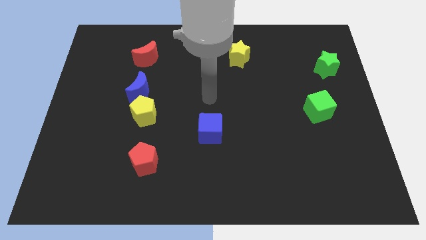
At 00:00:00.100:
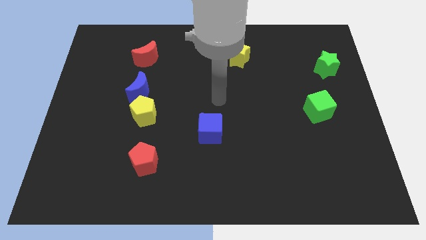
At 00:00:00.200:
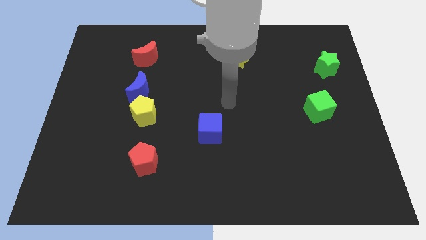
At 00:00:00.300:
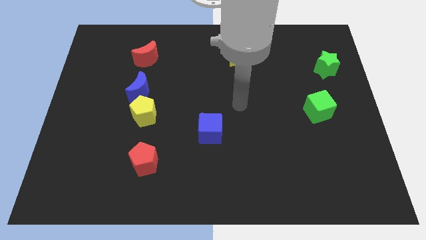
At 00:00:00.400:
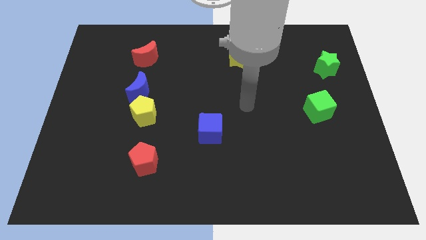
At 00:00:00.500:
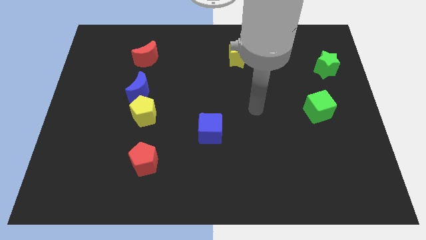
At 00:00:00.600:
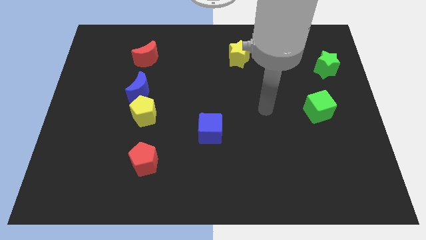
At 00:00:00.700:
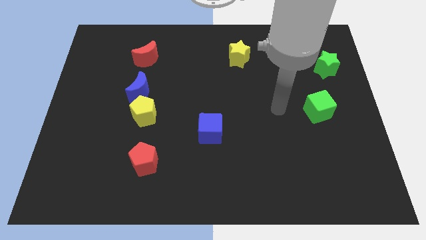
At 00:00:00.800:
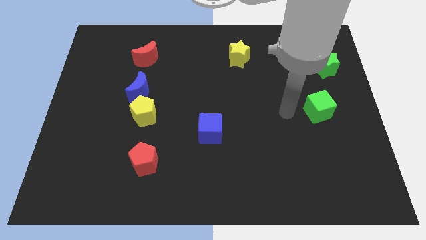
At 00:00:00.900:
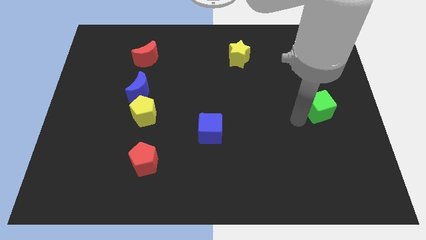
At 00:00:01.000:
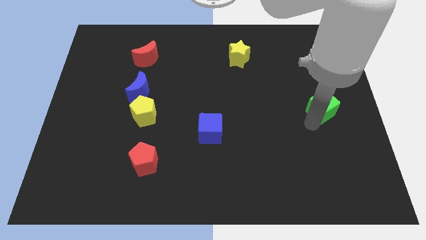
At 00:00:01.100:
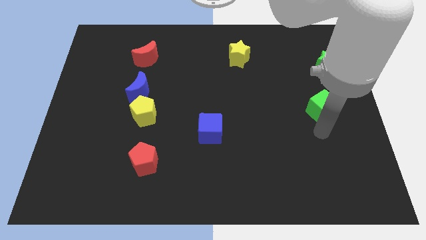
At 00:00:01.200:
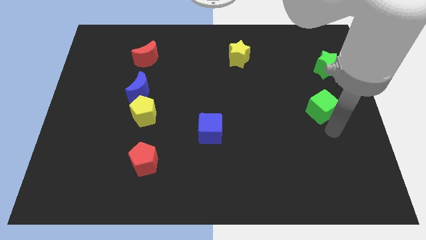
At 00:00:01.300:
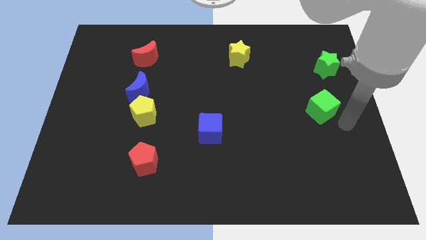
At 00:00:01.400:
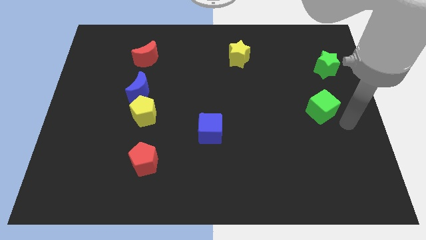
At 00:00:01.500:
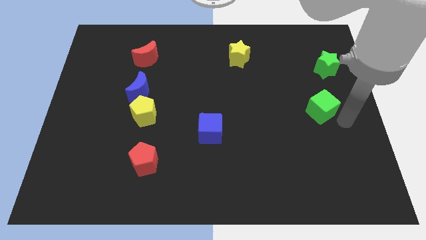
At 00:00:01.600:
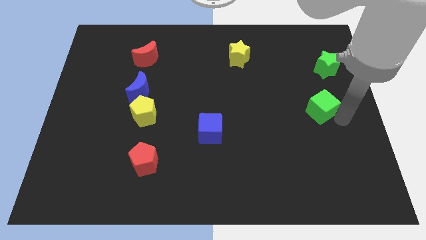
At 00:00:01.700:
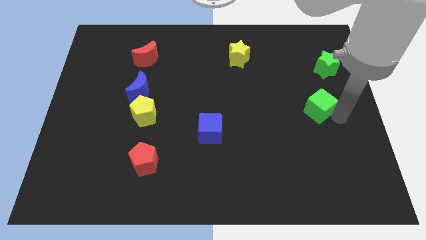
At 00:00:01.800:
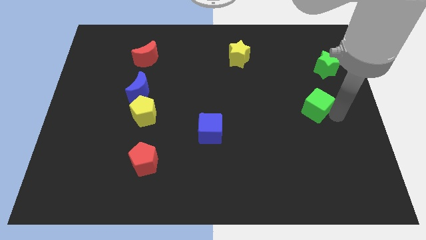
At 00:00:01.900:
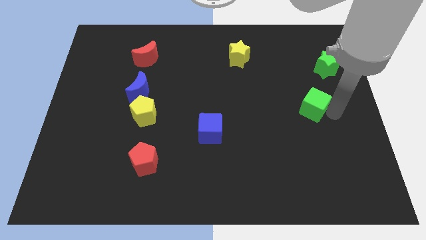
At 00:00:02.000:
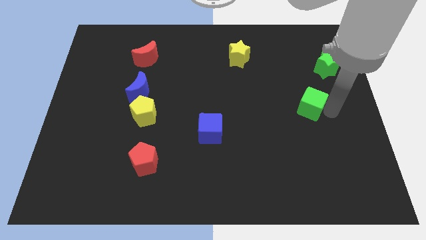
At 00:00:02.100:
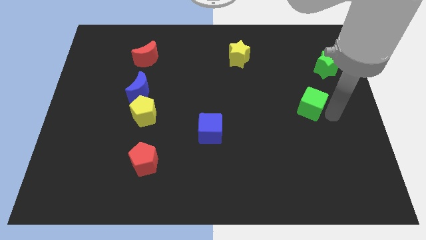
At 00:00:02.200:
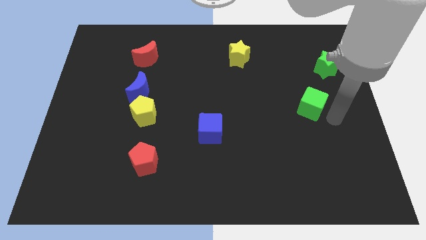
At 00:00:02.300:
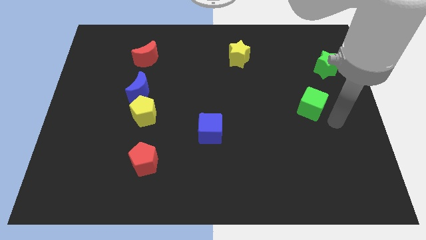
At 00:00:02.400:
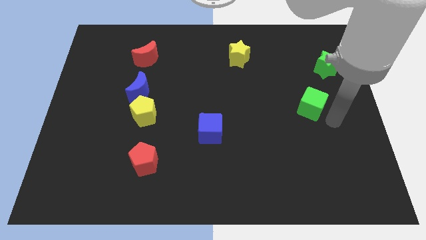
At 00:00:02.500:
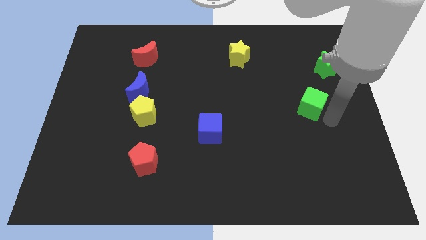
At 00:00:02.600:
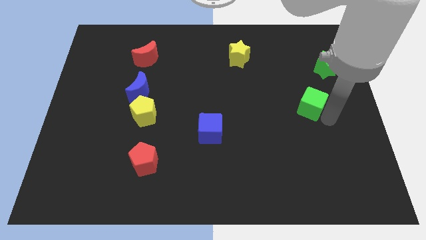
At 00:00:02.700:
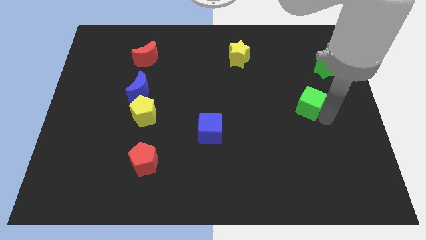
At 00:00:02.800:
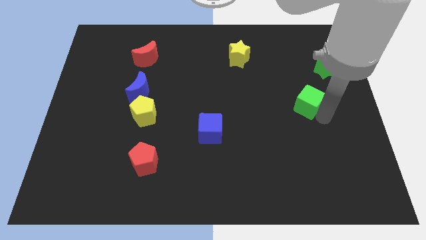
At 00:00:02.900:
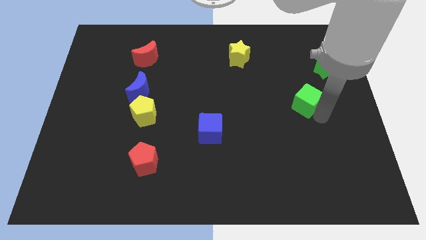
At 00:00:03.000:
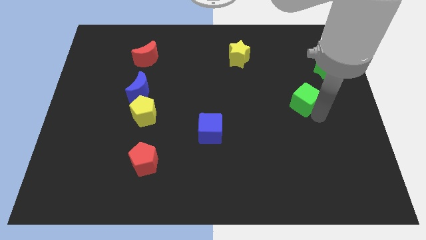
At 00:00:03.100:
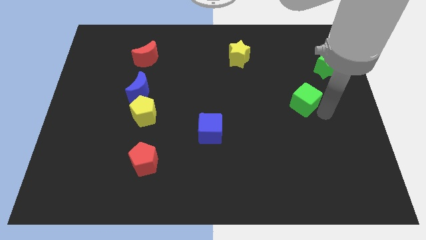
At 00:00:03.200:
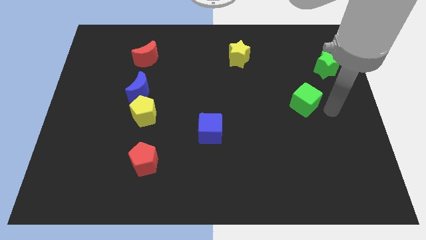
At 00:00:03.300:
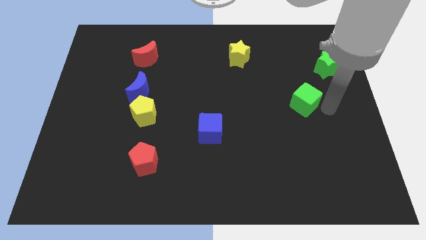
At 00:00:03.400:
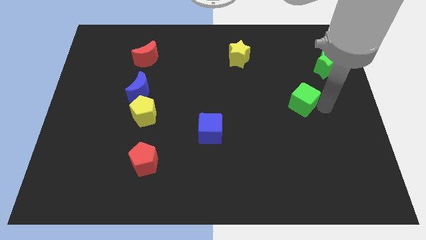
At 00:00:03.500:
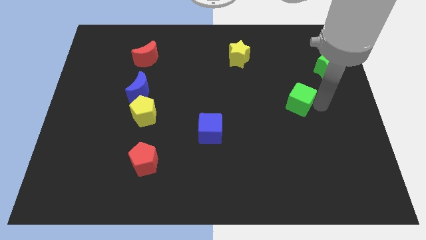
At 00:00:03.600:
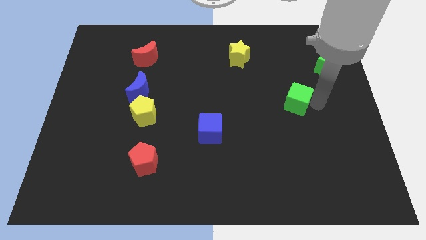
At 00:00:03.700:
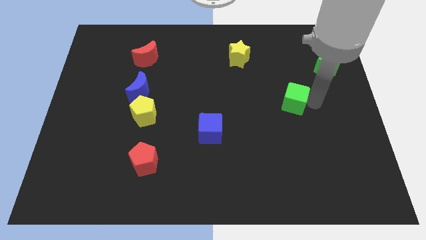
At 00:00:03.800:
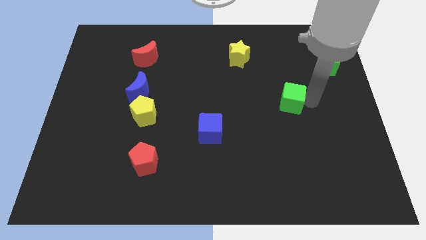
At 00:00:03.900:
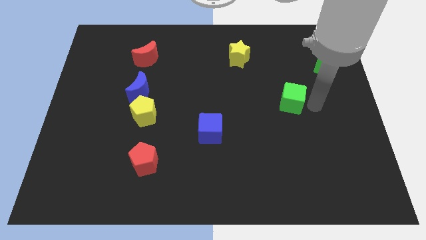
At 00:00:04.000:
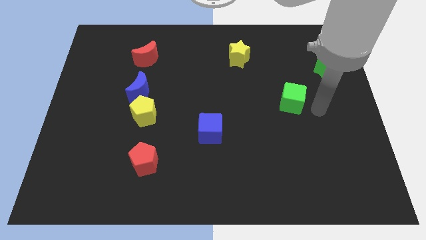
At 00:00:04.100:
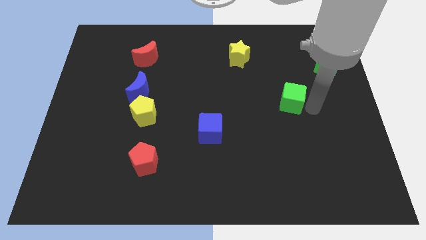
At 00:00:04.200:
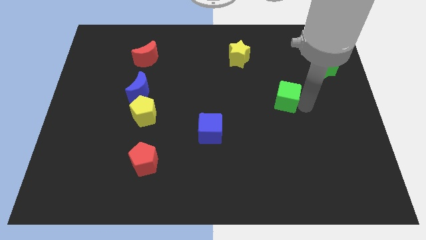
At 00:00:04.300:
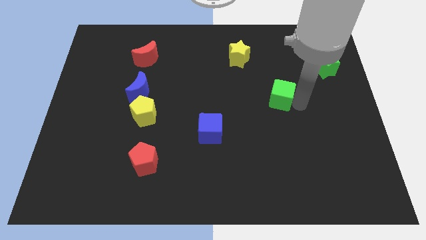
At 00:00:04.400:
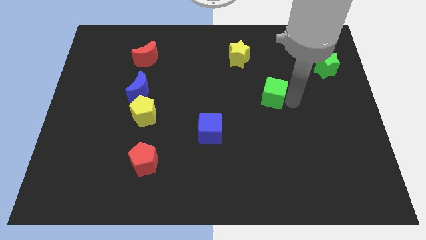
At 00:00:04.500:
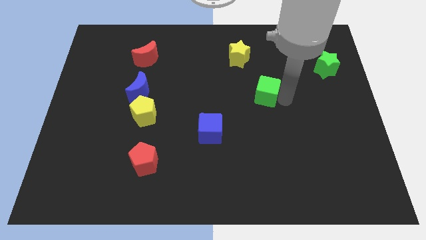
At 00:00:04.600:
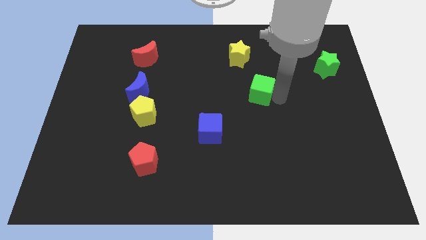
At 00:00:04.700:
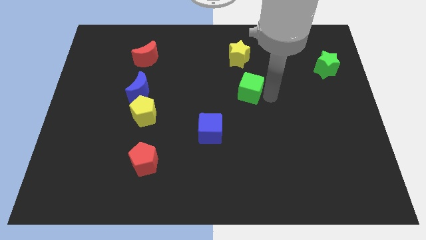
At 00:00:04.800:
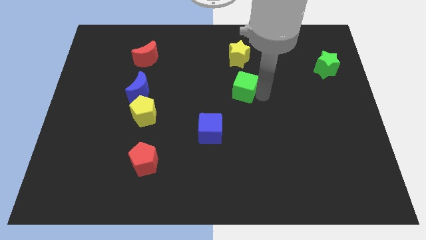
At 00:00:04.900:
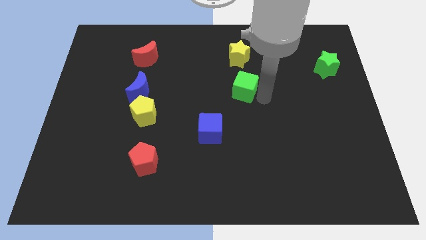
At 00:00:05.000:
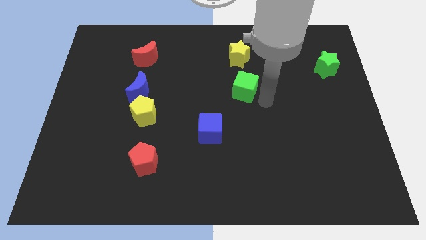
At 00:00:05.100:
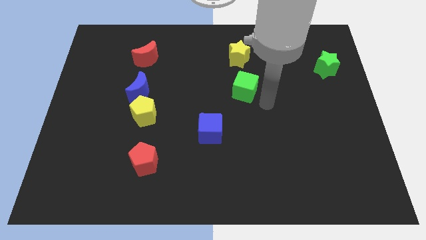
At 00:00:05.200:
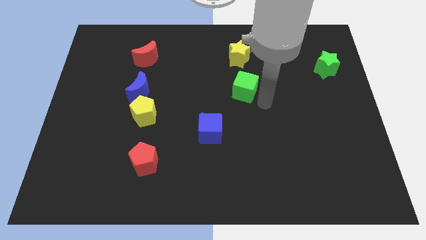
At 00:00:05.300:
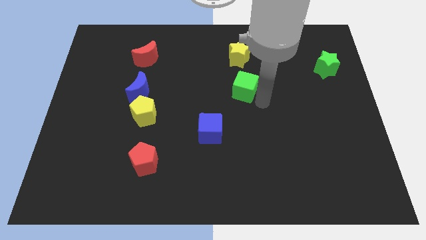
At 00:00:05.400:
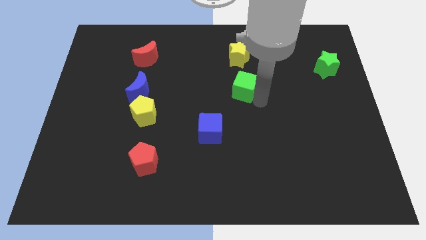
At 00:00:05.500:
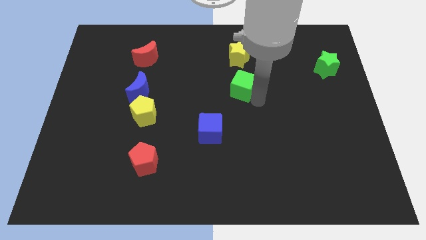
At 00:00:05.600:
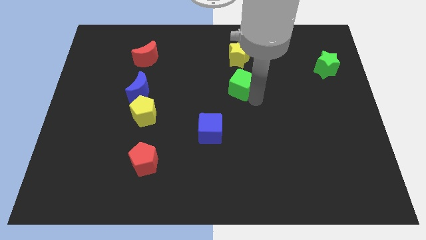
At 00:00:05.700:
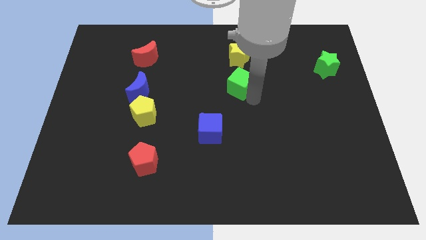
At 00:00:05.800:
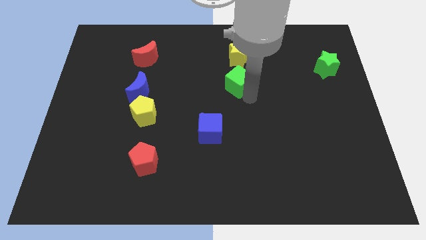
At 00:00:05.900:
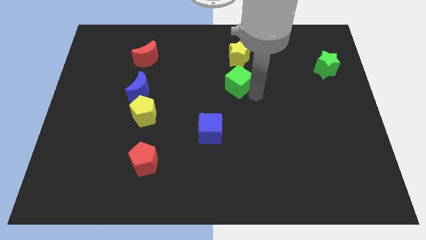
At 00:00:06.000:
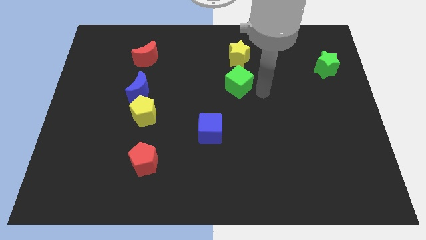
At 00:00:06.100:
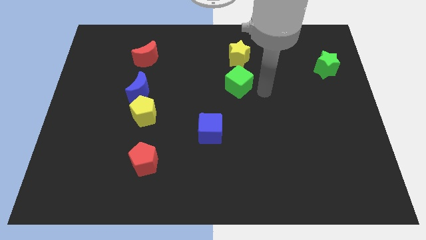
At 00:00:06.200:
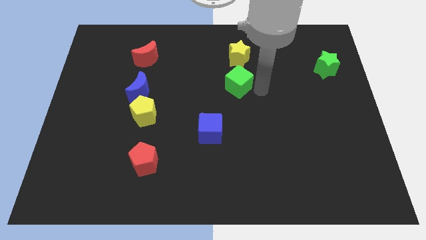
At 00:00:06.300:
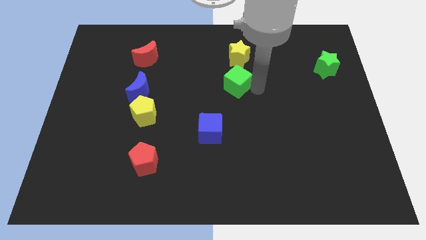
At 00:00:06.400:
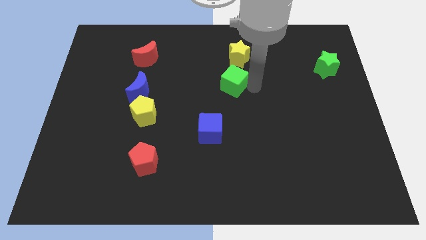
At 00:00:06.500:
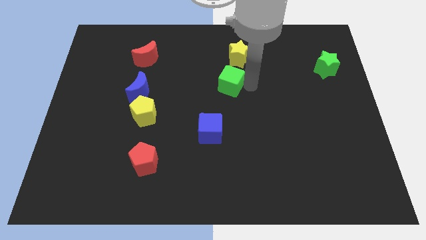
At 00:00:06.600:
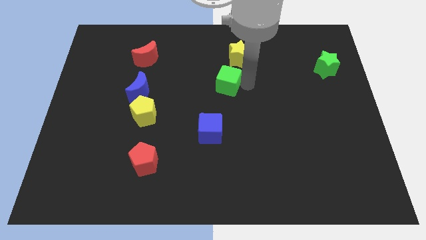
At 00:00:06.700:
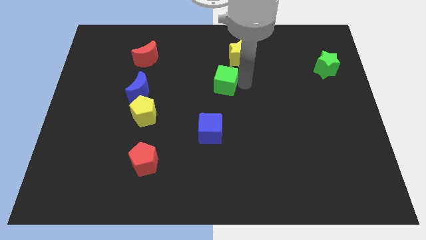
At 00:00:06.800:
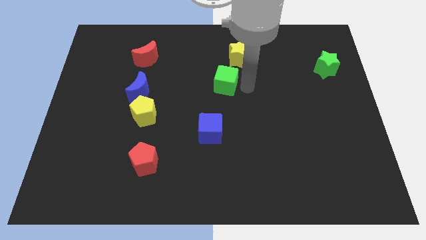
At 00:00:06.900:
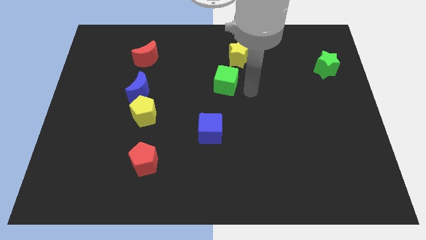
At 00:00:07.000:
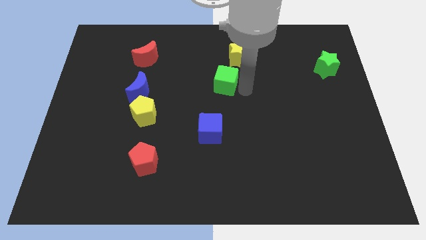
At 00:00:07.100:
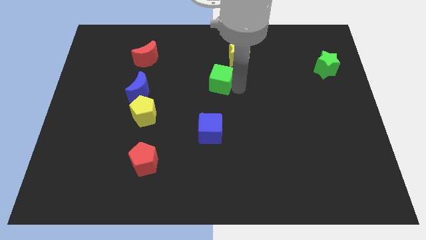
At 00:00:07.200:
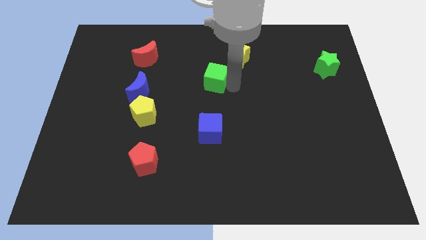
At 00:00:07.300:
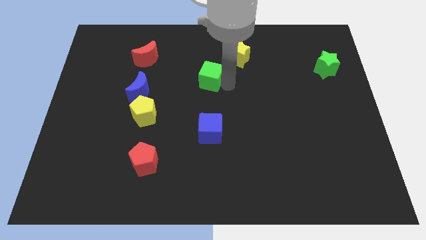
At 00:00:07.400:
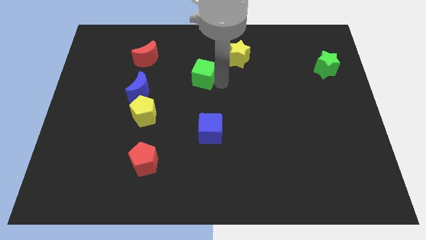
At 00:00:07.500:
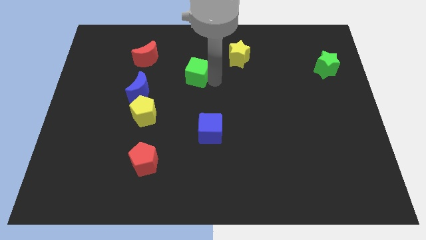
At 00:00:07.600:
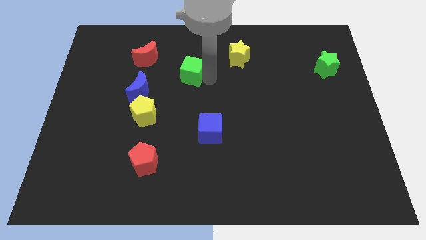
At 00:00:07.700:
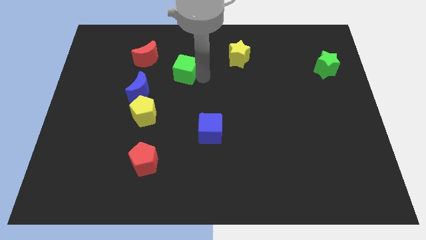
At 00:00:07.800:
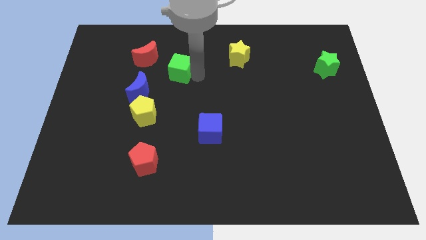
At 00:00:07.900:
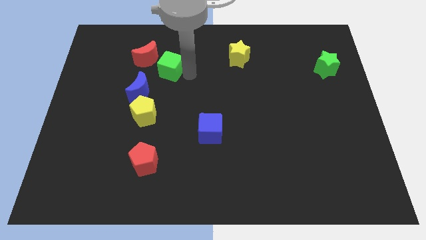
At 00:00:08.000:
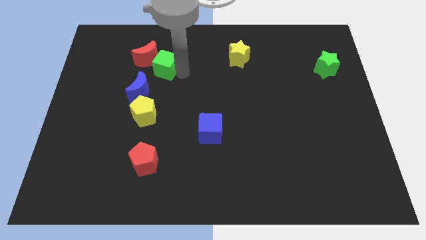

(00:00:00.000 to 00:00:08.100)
push the green cube next to the red moon
